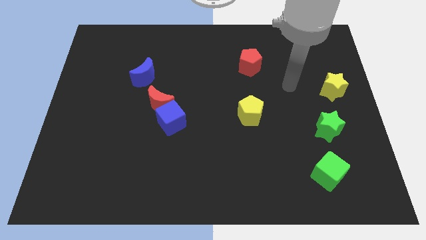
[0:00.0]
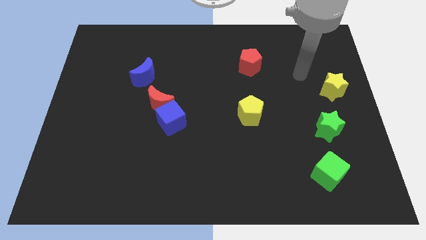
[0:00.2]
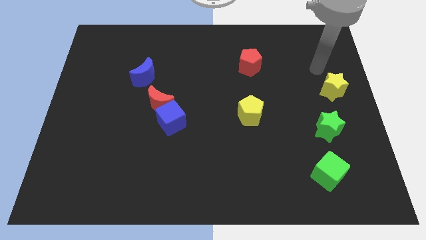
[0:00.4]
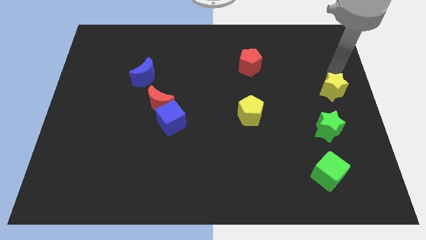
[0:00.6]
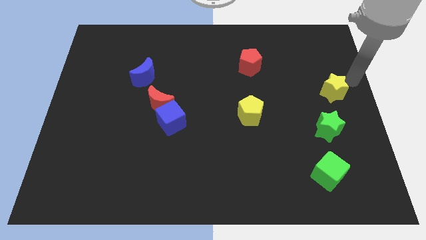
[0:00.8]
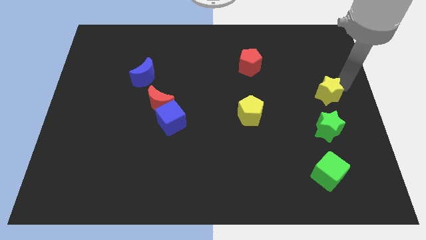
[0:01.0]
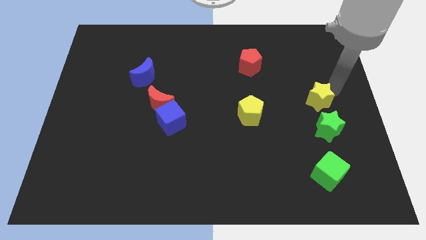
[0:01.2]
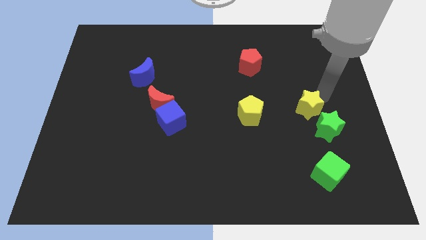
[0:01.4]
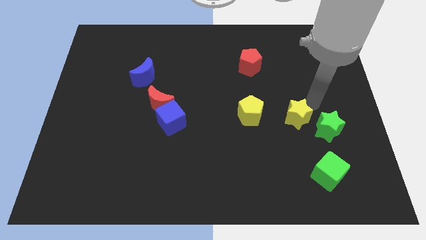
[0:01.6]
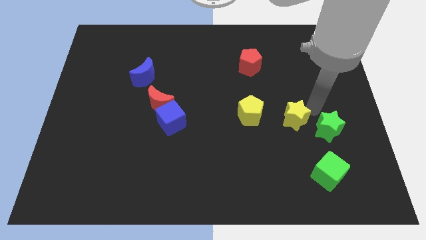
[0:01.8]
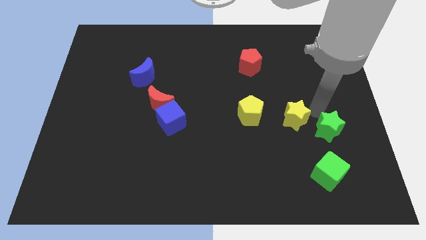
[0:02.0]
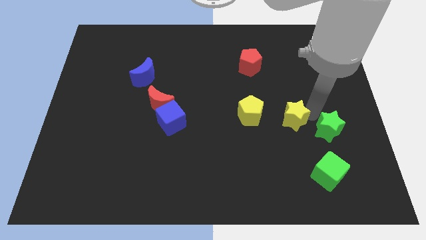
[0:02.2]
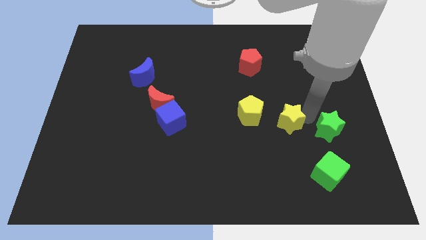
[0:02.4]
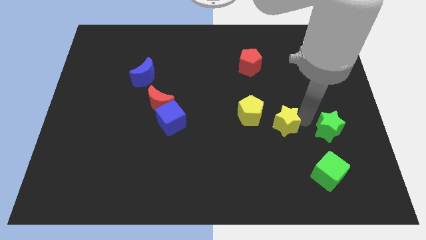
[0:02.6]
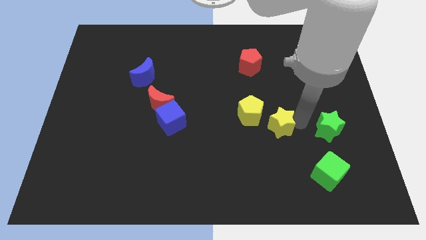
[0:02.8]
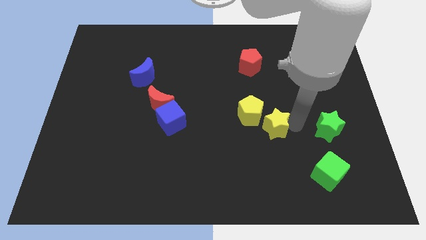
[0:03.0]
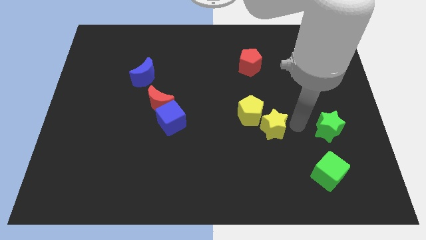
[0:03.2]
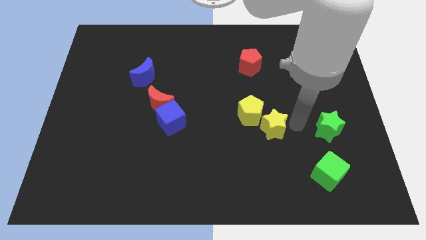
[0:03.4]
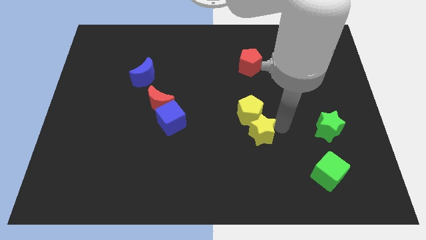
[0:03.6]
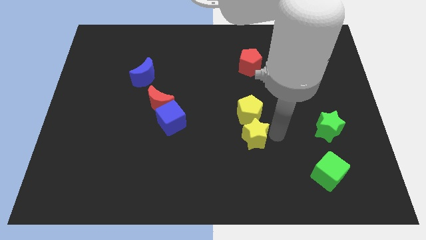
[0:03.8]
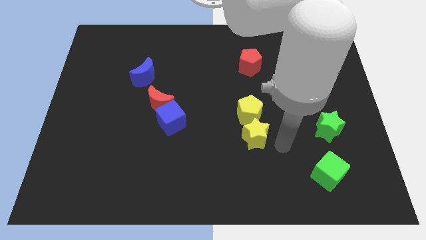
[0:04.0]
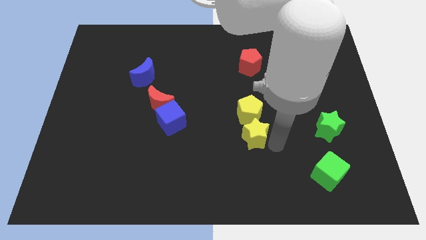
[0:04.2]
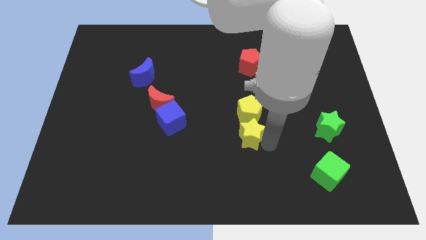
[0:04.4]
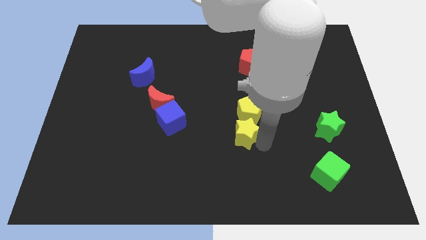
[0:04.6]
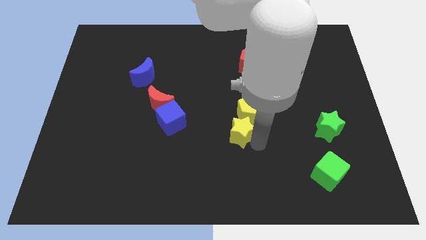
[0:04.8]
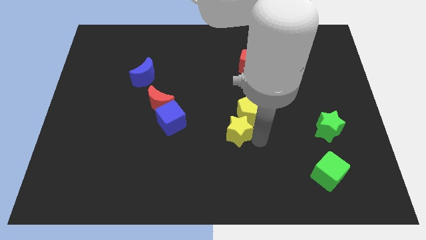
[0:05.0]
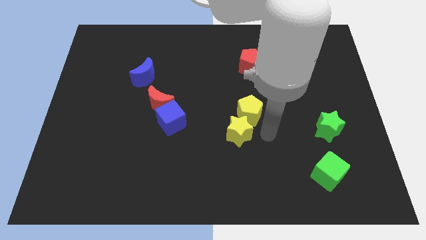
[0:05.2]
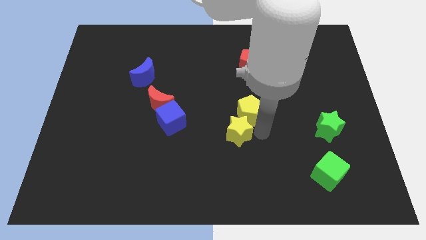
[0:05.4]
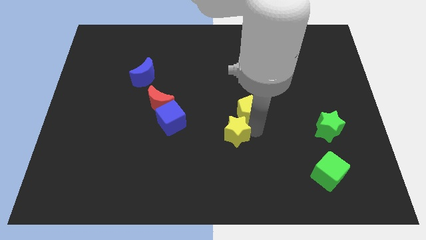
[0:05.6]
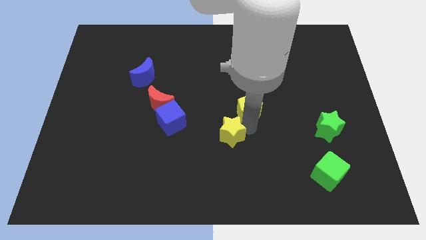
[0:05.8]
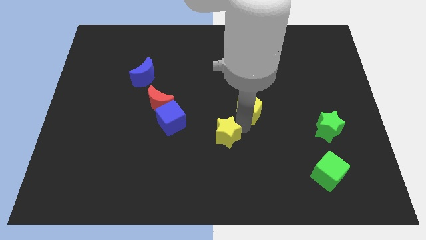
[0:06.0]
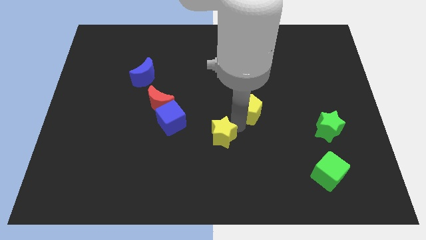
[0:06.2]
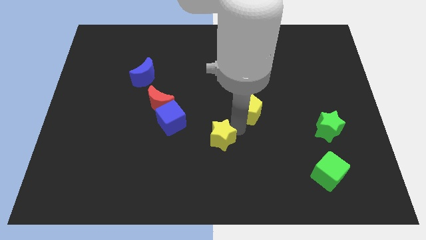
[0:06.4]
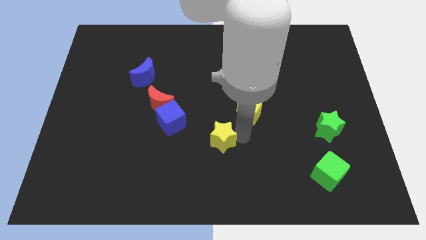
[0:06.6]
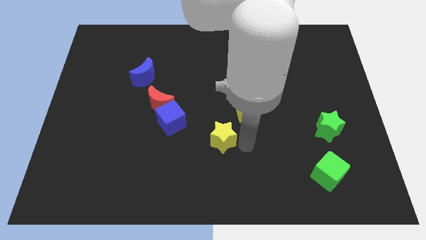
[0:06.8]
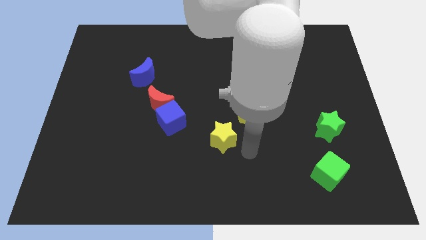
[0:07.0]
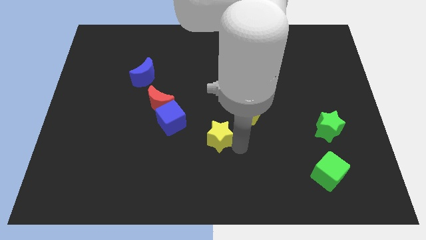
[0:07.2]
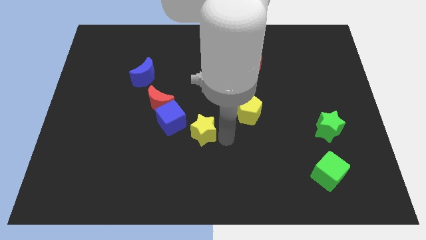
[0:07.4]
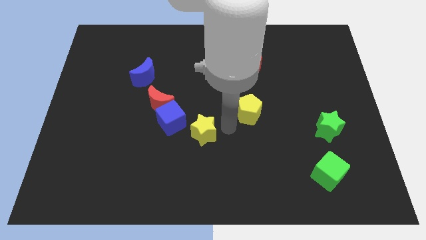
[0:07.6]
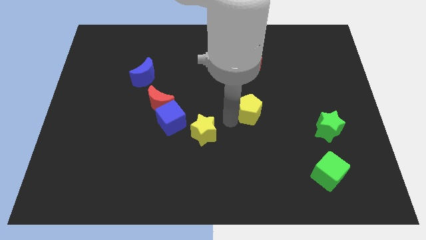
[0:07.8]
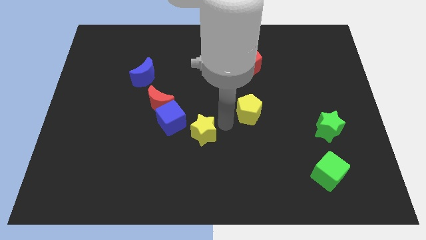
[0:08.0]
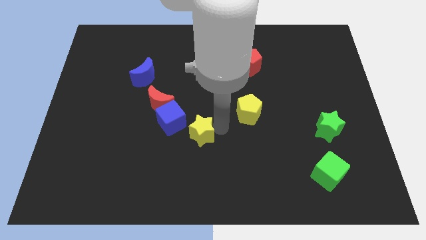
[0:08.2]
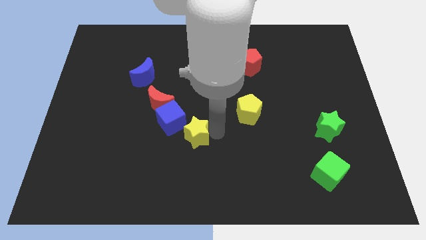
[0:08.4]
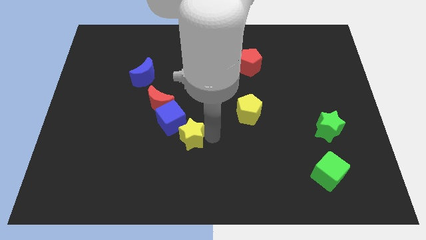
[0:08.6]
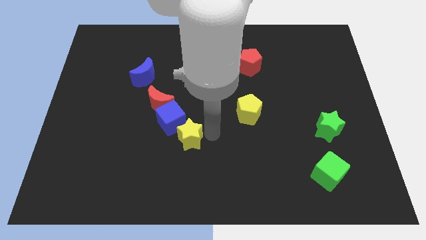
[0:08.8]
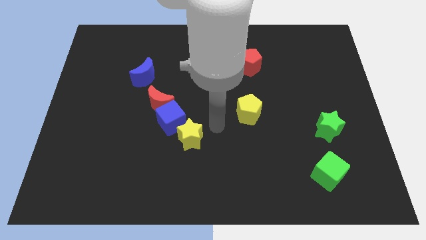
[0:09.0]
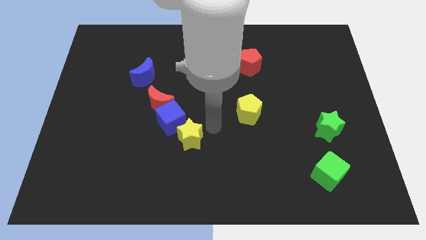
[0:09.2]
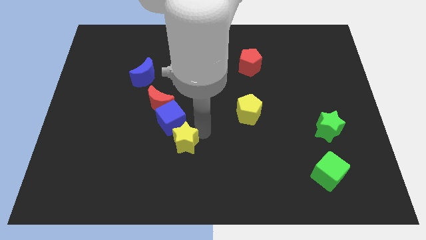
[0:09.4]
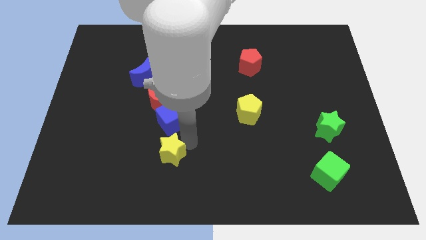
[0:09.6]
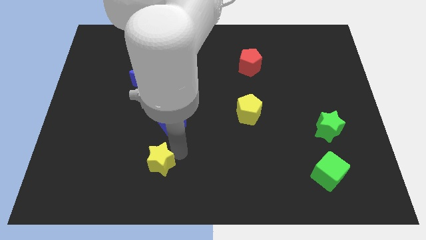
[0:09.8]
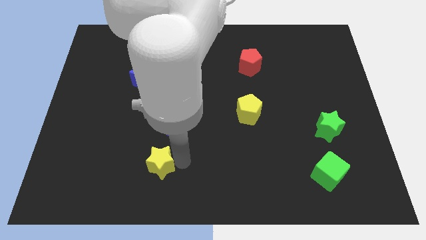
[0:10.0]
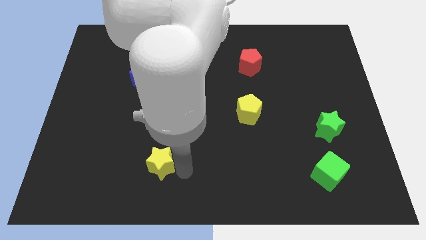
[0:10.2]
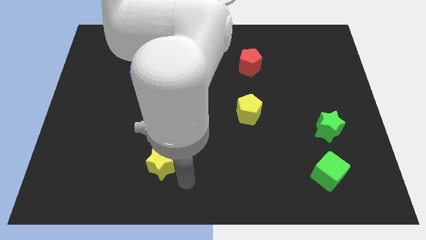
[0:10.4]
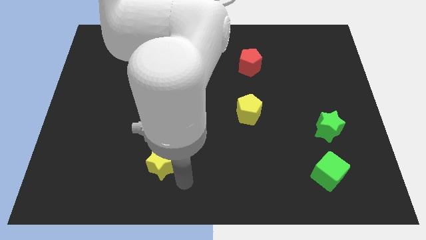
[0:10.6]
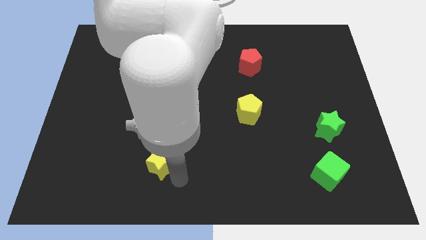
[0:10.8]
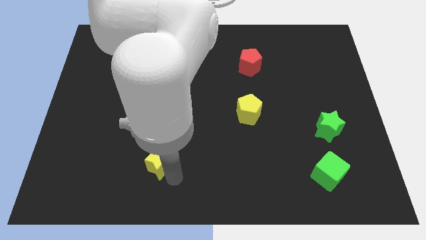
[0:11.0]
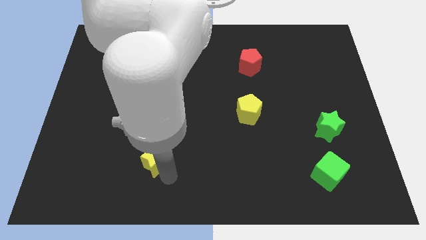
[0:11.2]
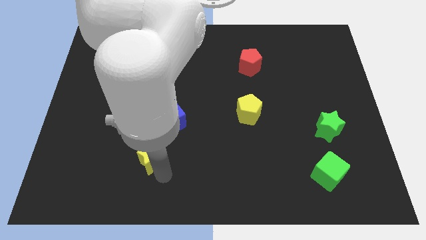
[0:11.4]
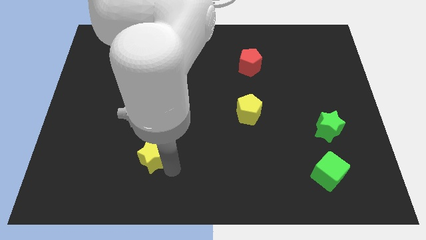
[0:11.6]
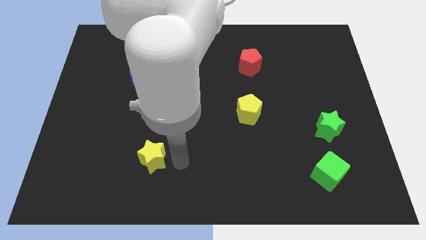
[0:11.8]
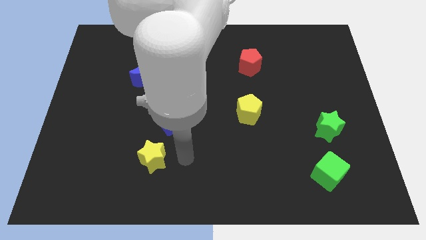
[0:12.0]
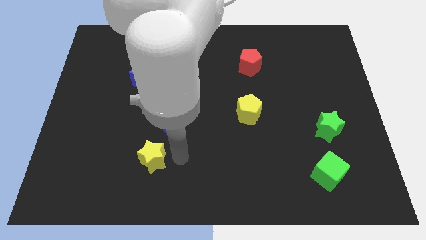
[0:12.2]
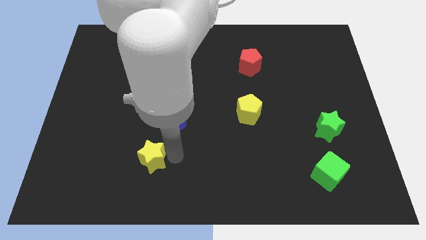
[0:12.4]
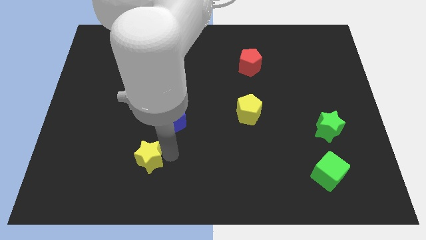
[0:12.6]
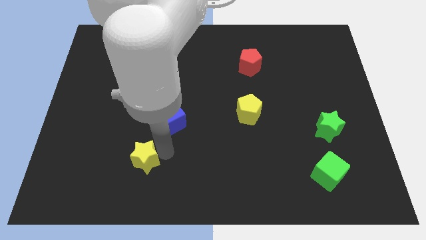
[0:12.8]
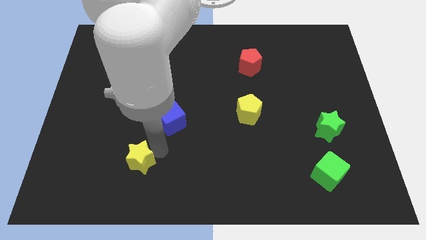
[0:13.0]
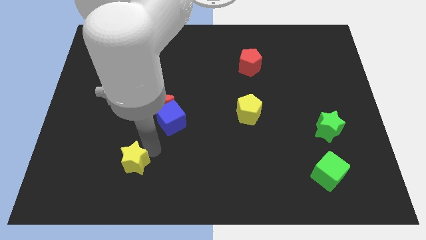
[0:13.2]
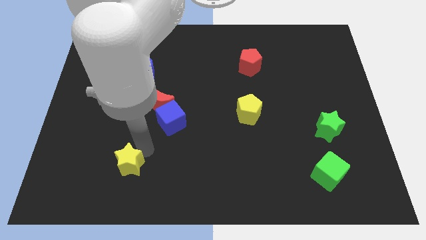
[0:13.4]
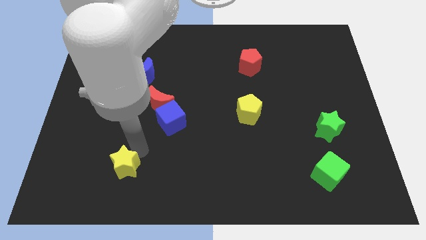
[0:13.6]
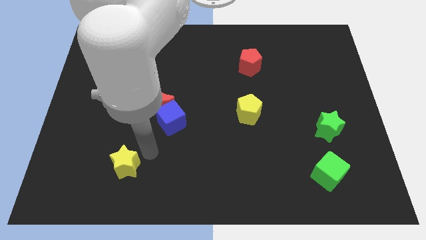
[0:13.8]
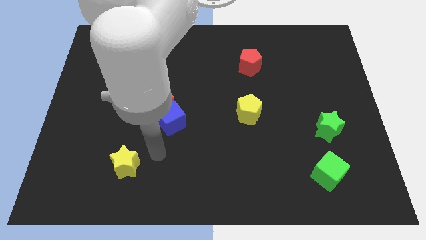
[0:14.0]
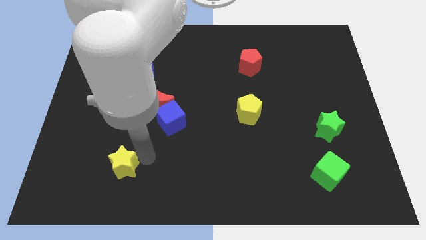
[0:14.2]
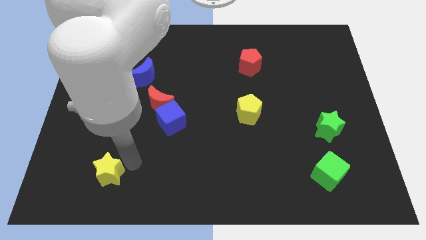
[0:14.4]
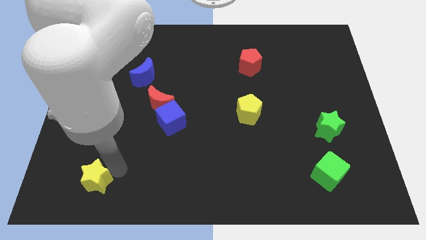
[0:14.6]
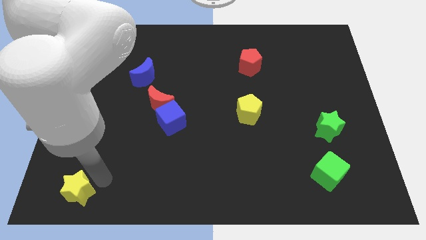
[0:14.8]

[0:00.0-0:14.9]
slide the yellow star to the lower left corner
